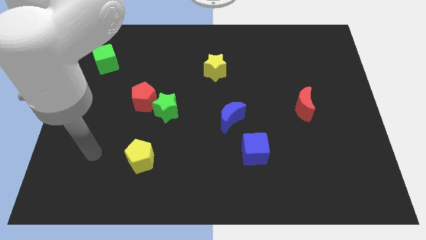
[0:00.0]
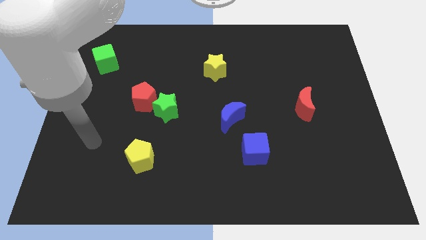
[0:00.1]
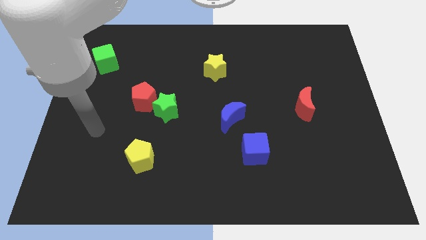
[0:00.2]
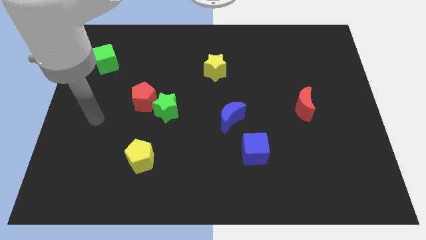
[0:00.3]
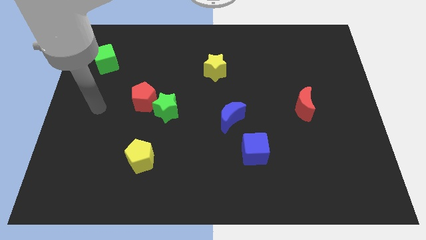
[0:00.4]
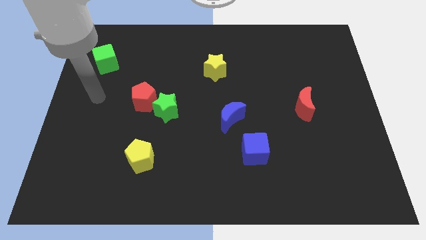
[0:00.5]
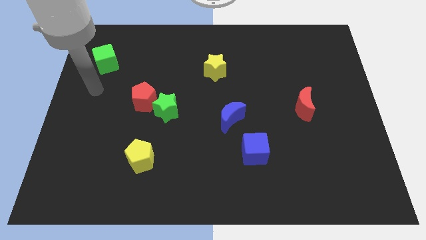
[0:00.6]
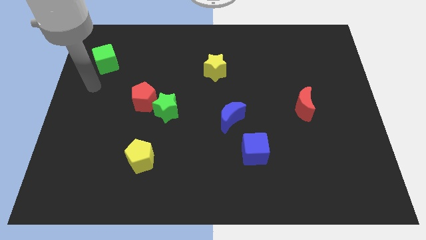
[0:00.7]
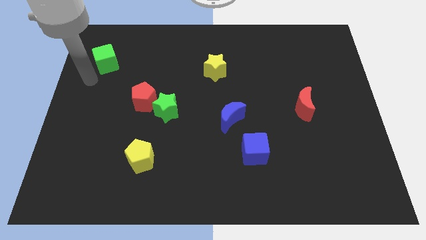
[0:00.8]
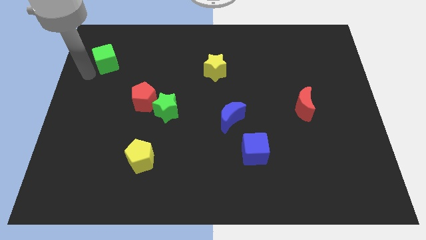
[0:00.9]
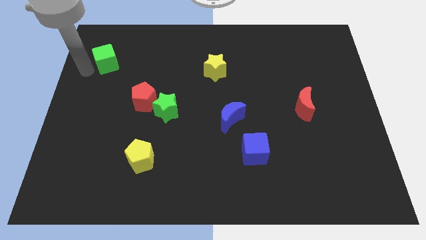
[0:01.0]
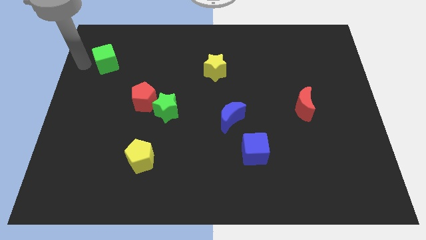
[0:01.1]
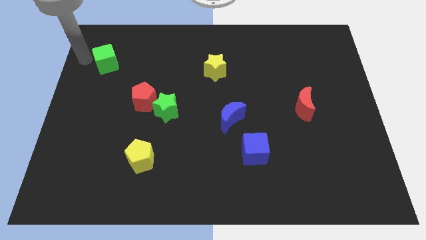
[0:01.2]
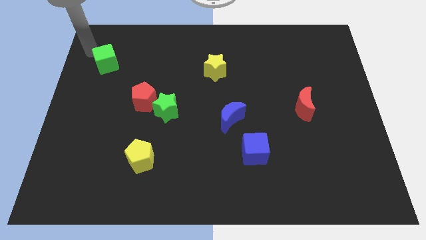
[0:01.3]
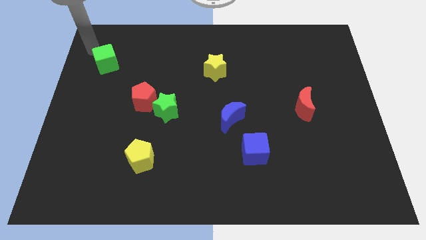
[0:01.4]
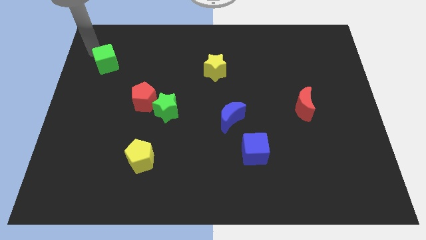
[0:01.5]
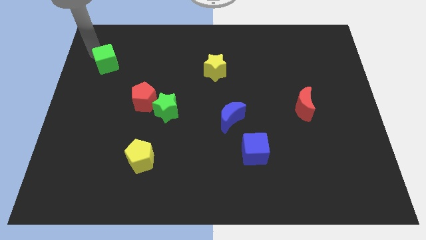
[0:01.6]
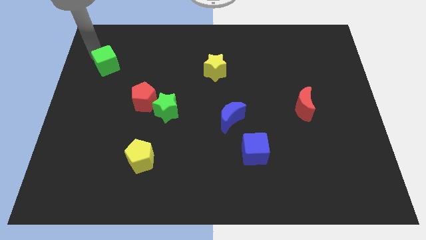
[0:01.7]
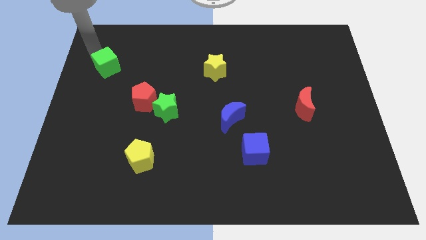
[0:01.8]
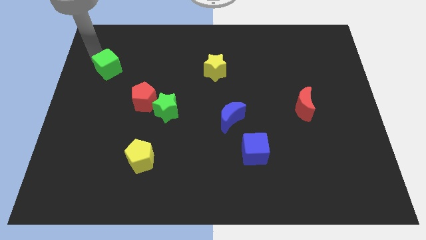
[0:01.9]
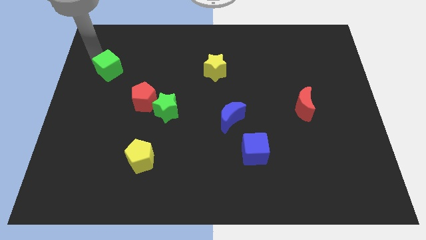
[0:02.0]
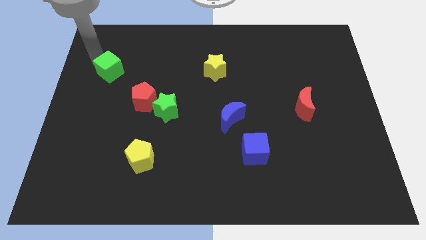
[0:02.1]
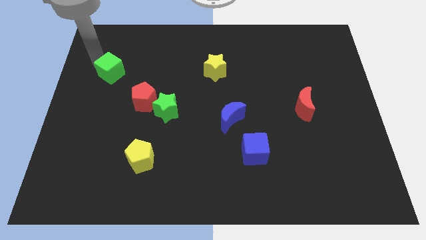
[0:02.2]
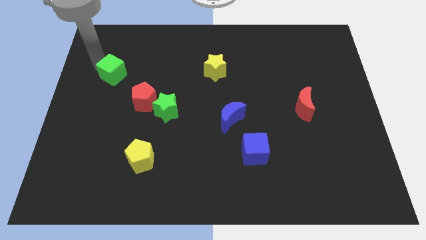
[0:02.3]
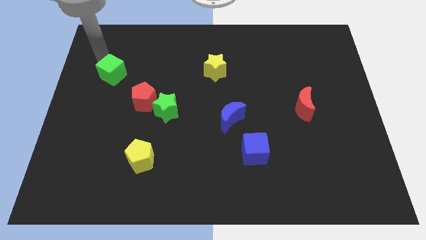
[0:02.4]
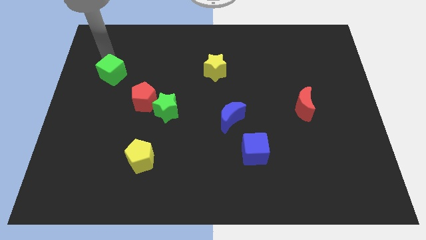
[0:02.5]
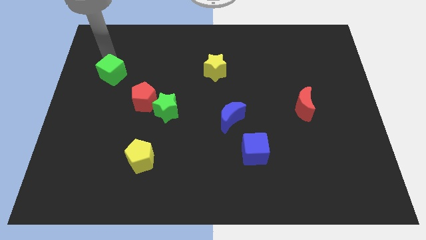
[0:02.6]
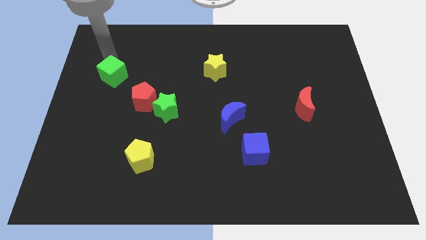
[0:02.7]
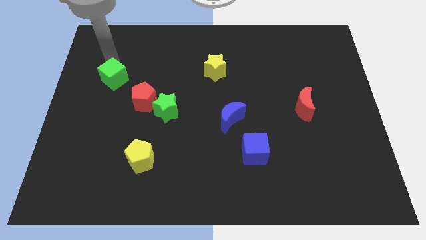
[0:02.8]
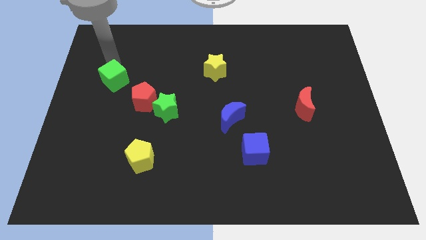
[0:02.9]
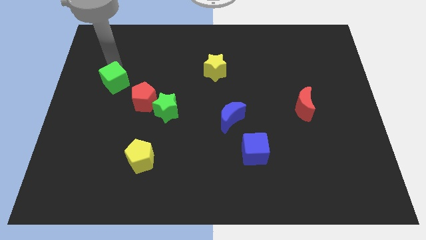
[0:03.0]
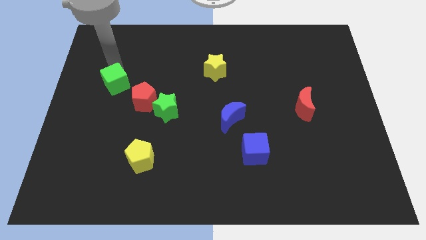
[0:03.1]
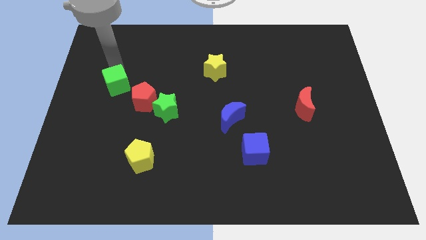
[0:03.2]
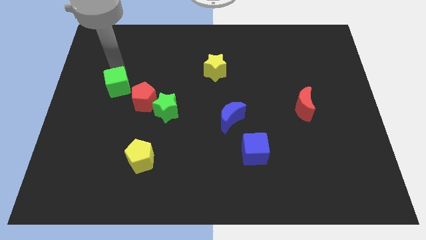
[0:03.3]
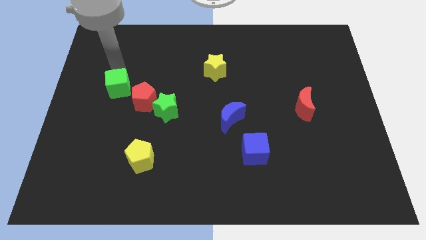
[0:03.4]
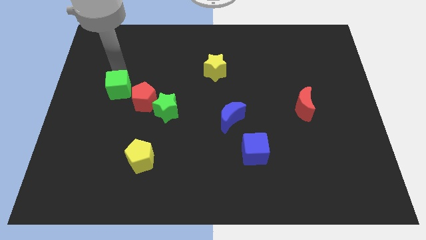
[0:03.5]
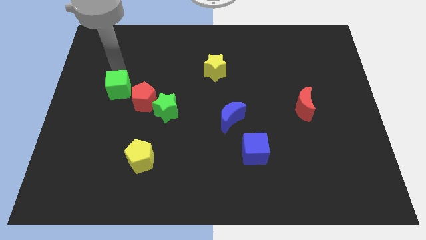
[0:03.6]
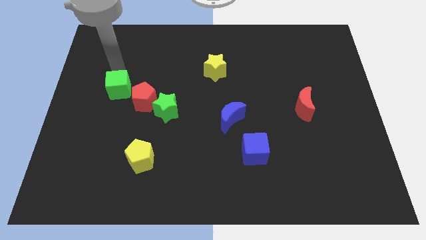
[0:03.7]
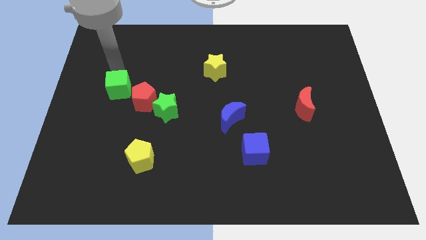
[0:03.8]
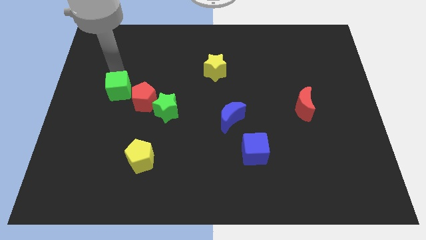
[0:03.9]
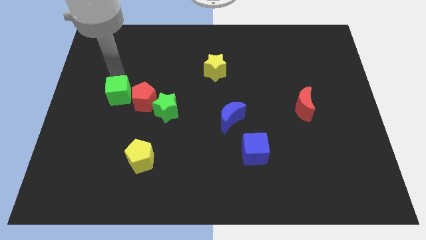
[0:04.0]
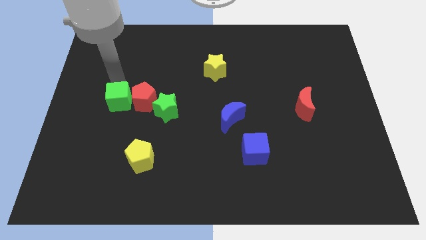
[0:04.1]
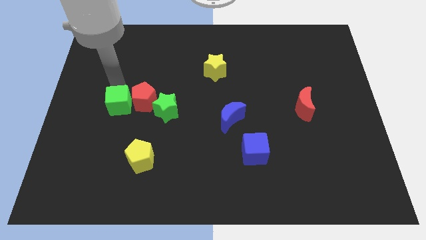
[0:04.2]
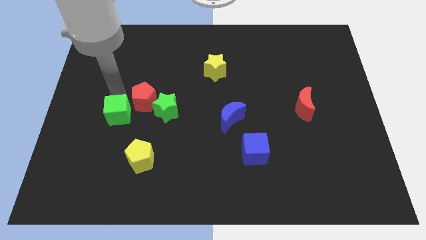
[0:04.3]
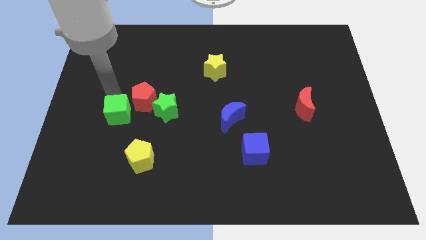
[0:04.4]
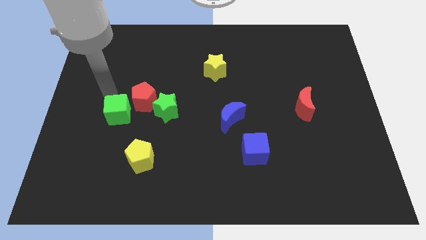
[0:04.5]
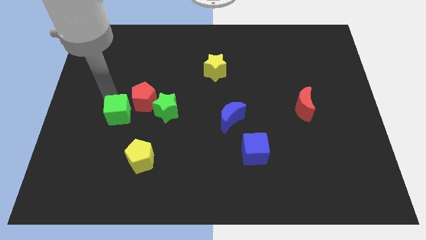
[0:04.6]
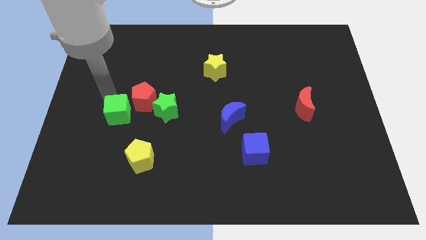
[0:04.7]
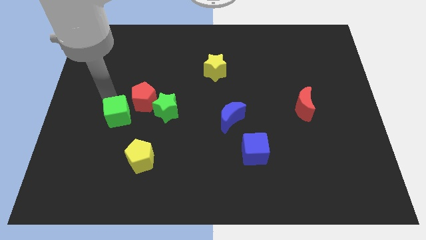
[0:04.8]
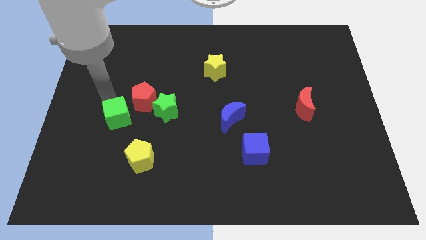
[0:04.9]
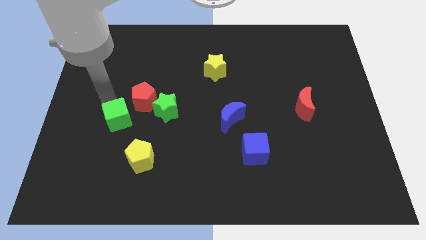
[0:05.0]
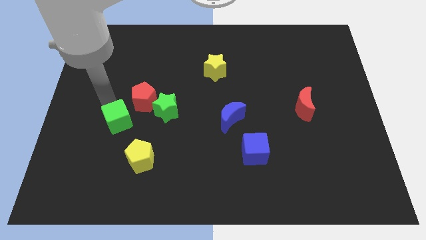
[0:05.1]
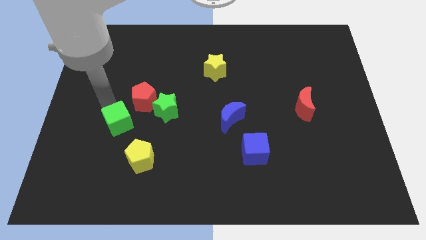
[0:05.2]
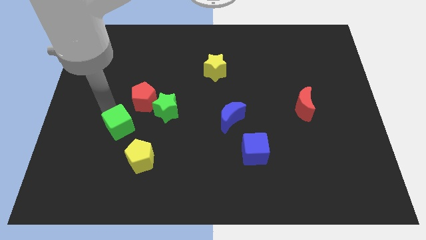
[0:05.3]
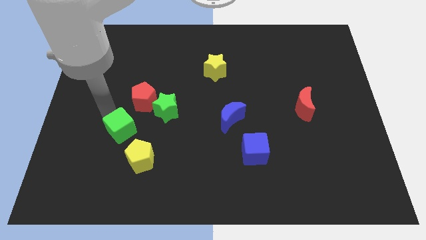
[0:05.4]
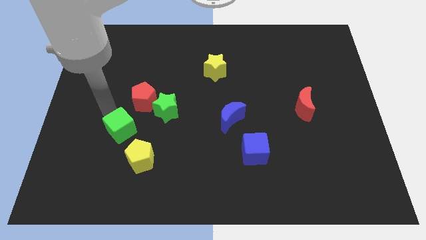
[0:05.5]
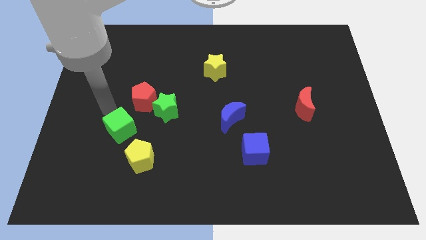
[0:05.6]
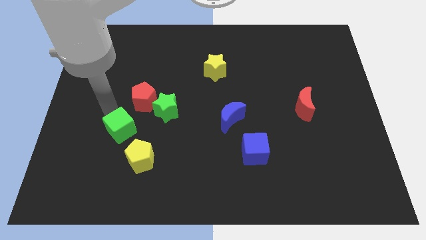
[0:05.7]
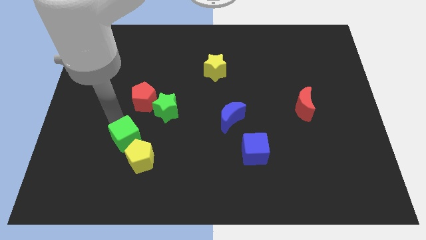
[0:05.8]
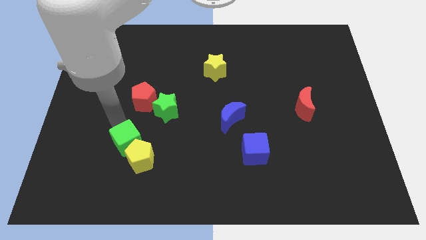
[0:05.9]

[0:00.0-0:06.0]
push the green cube towards the yellow pentagon

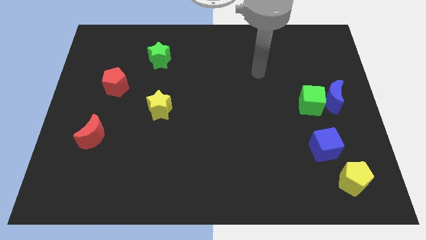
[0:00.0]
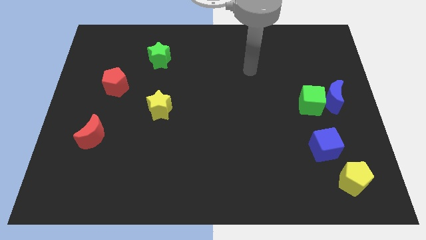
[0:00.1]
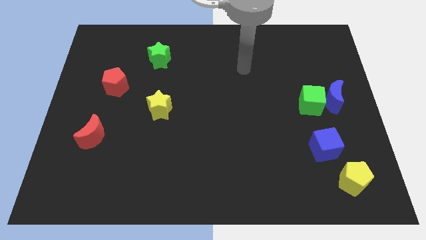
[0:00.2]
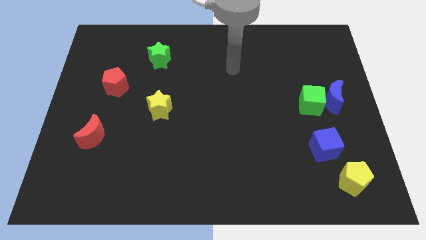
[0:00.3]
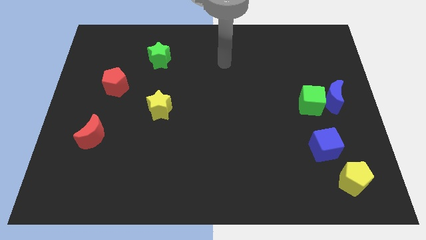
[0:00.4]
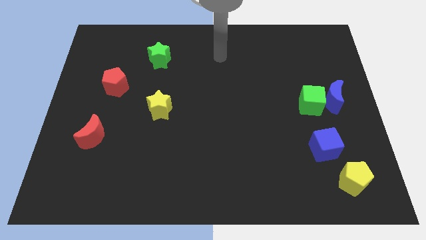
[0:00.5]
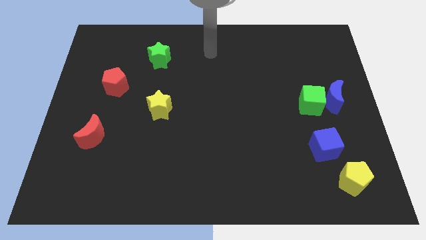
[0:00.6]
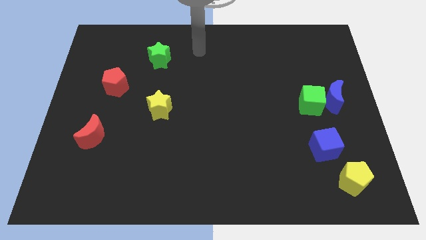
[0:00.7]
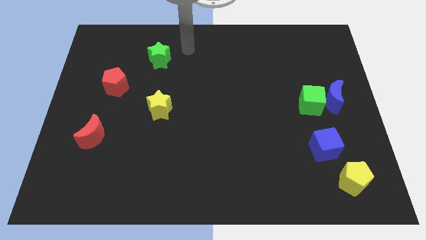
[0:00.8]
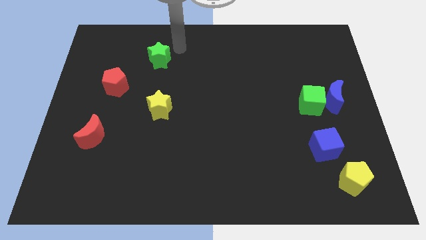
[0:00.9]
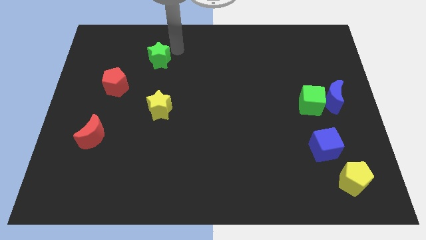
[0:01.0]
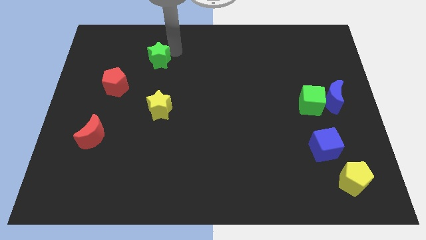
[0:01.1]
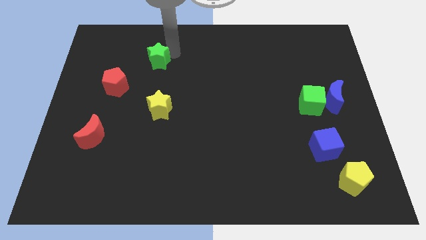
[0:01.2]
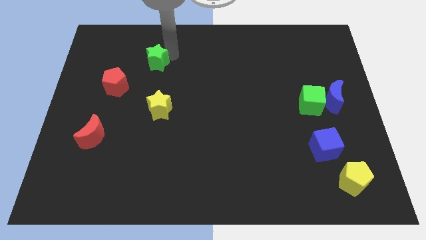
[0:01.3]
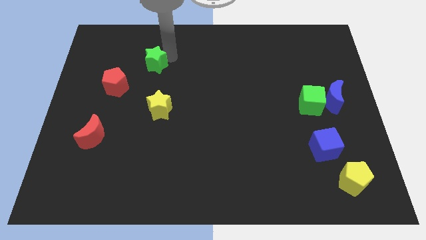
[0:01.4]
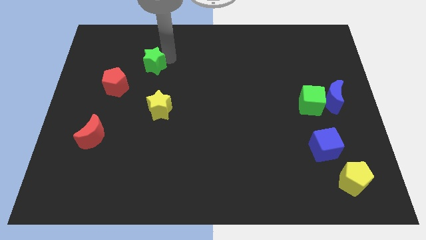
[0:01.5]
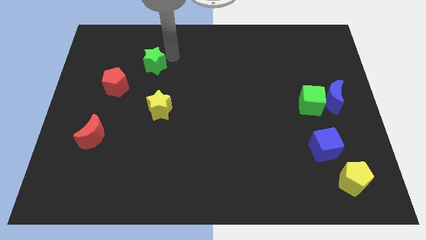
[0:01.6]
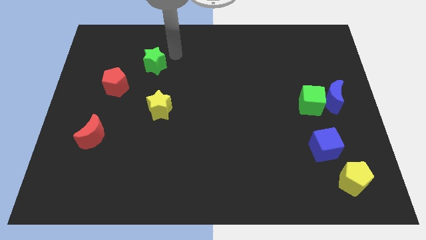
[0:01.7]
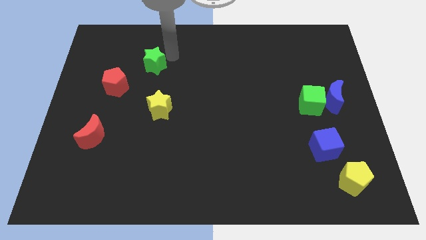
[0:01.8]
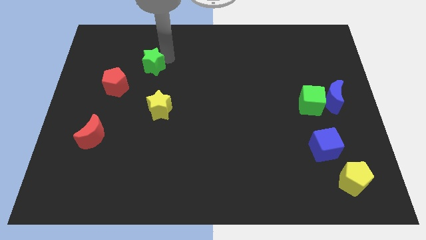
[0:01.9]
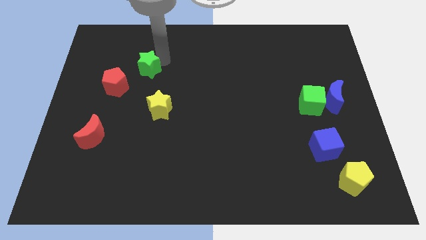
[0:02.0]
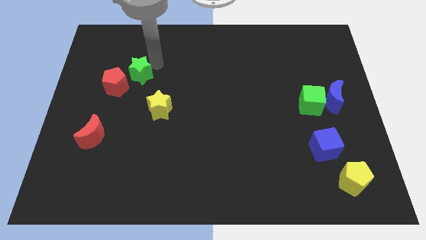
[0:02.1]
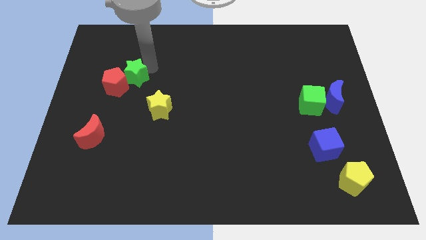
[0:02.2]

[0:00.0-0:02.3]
push the green star towards the red pentagon
